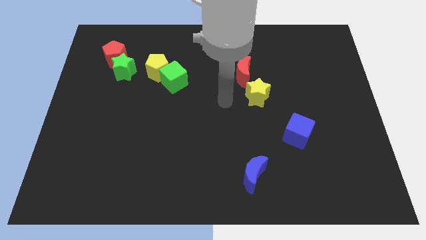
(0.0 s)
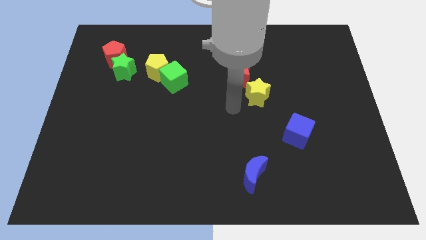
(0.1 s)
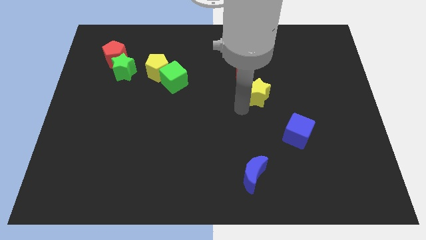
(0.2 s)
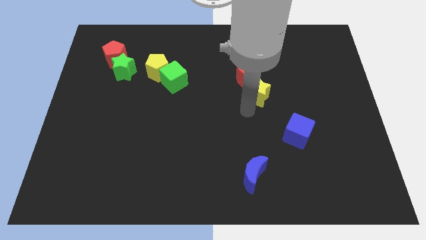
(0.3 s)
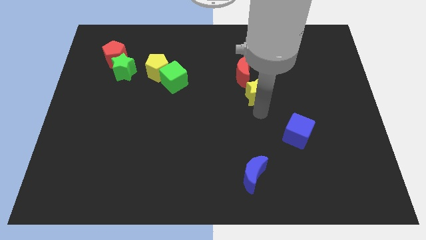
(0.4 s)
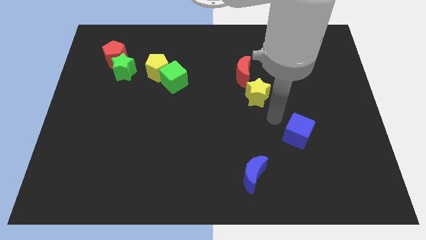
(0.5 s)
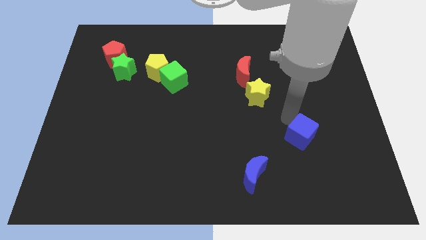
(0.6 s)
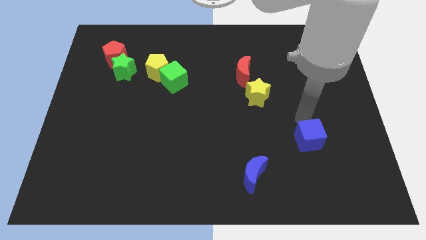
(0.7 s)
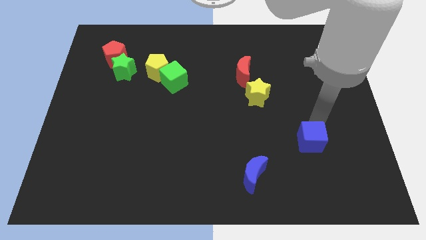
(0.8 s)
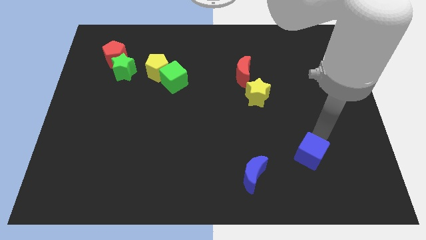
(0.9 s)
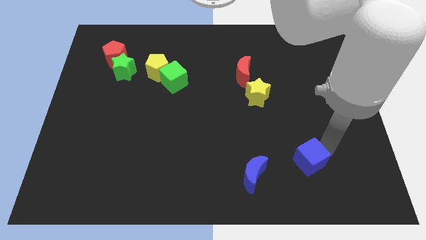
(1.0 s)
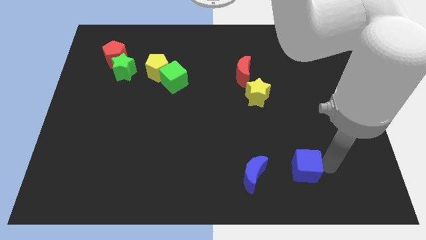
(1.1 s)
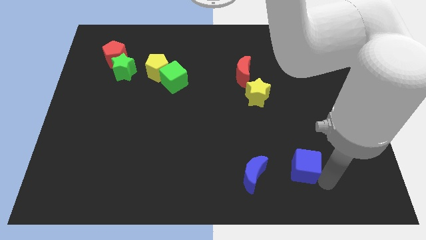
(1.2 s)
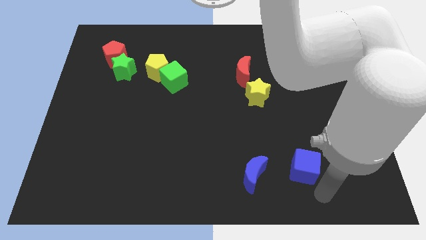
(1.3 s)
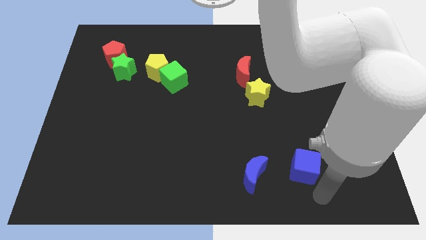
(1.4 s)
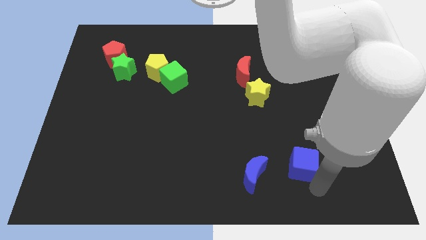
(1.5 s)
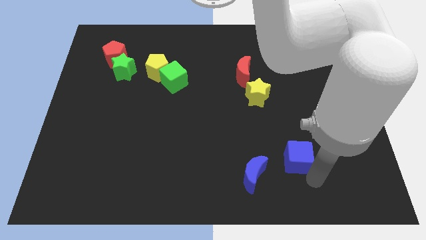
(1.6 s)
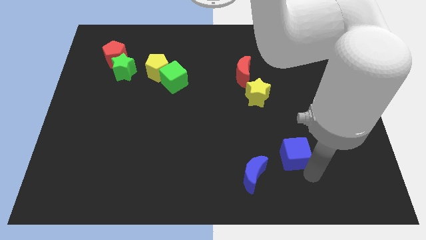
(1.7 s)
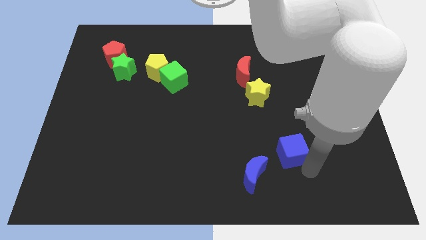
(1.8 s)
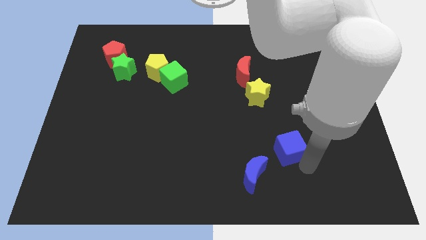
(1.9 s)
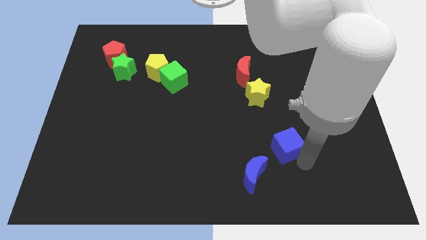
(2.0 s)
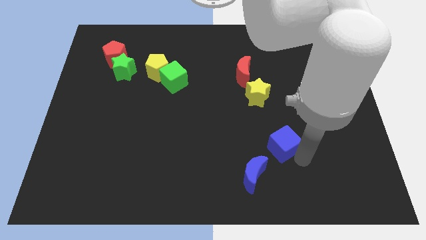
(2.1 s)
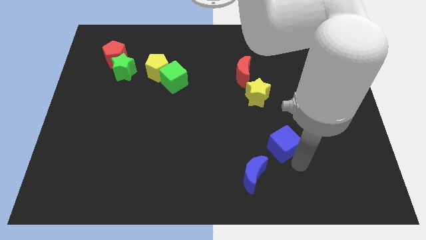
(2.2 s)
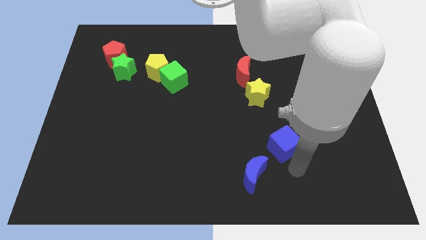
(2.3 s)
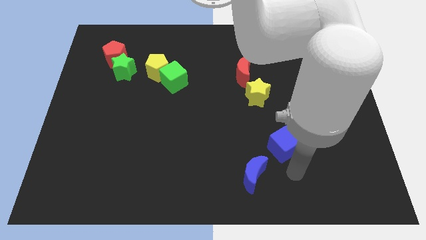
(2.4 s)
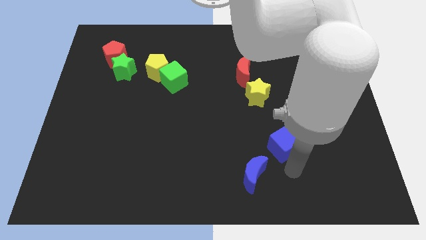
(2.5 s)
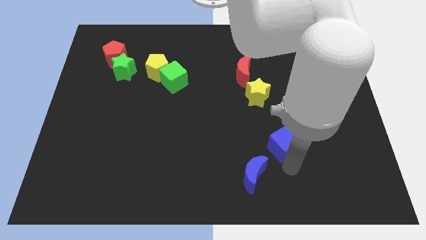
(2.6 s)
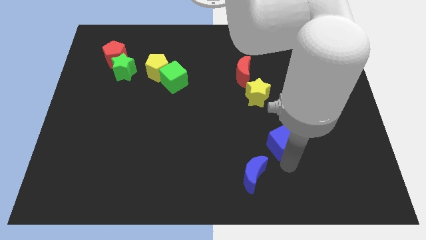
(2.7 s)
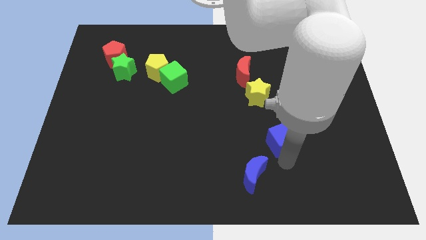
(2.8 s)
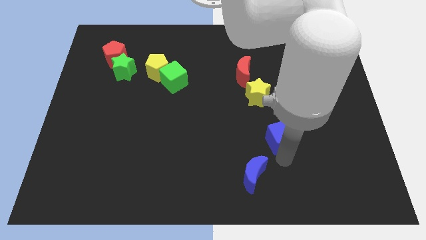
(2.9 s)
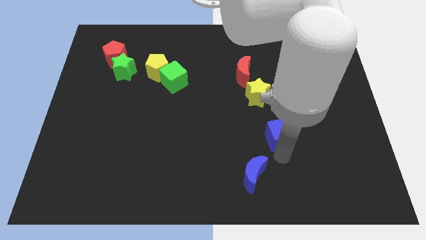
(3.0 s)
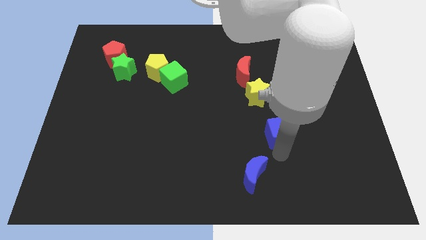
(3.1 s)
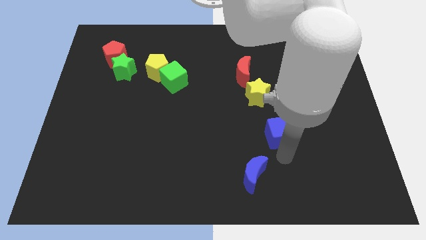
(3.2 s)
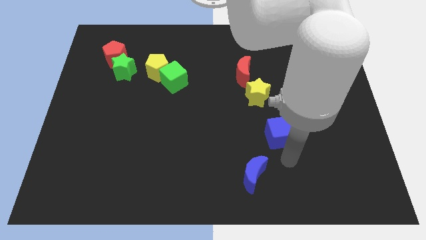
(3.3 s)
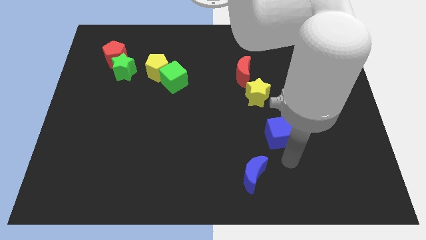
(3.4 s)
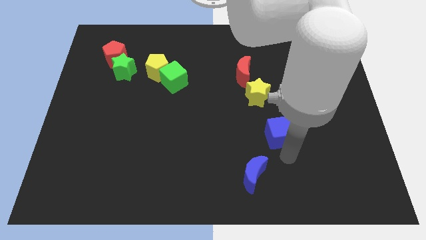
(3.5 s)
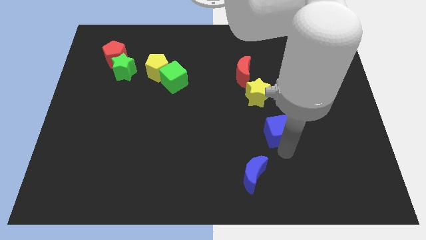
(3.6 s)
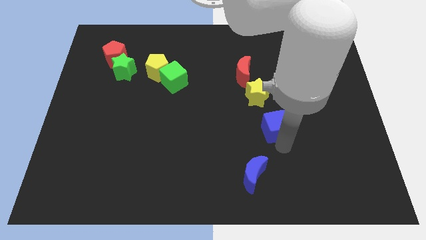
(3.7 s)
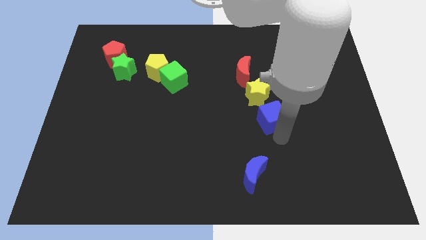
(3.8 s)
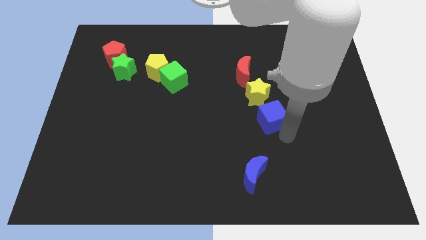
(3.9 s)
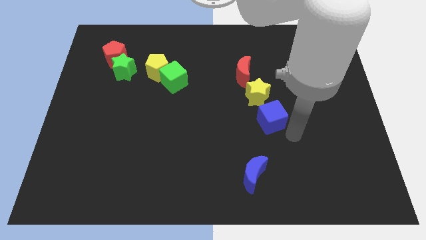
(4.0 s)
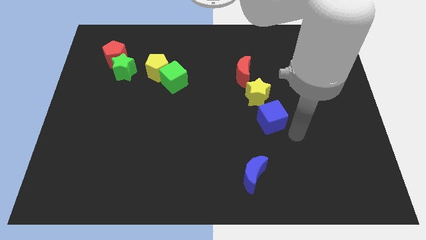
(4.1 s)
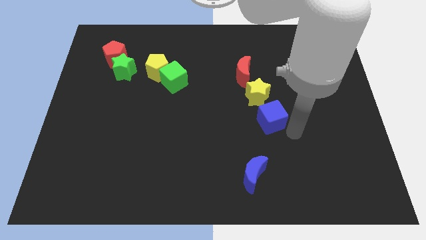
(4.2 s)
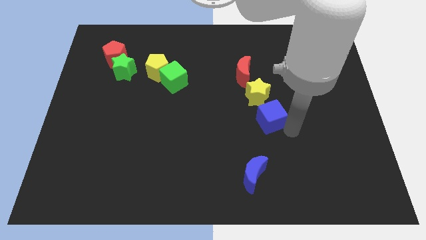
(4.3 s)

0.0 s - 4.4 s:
slightly push the blue cube upwards and to the left diagonally

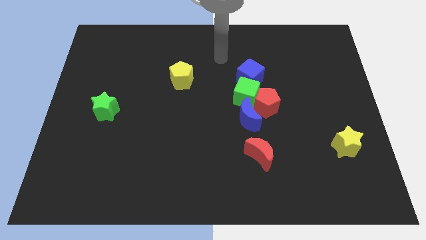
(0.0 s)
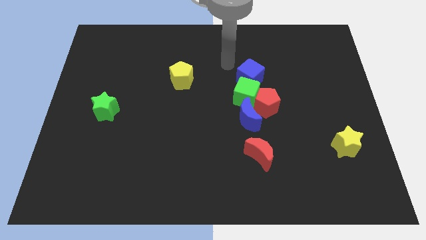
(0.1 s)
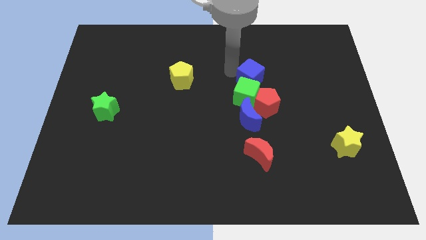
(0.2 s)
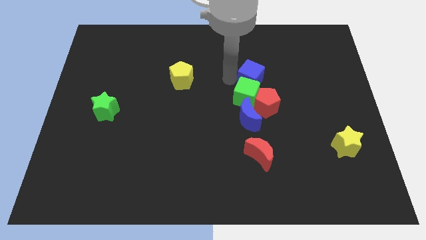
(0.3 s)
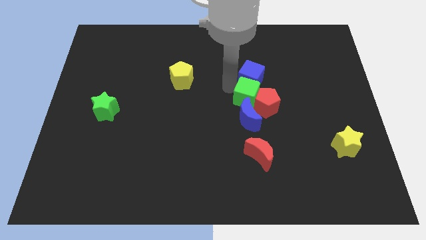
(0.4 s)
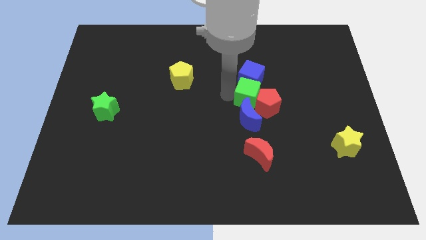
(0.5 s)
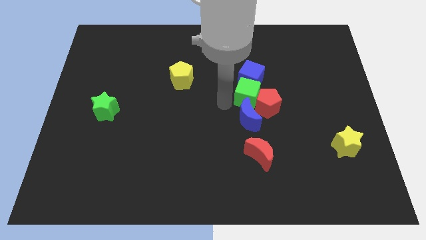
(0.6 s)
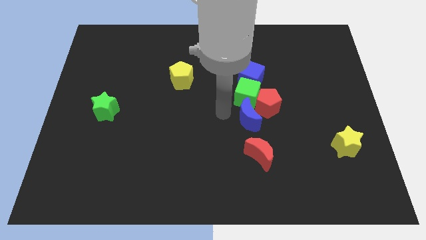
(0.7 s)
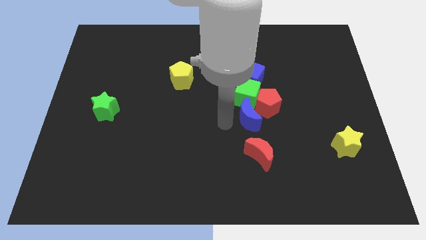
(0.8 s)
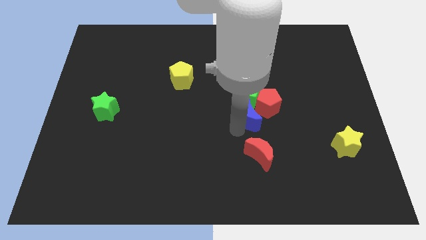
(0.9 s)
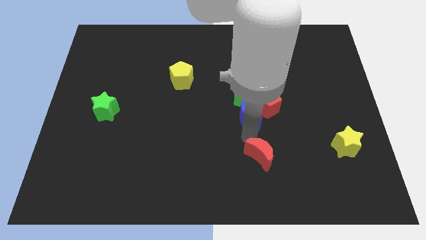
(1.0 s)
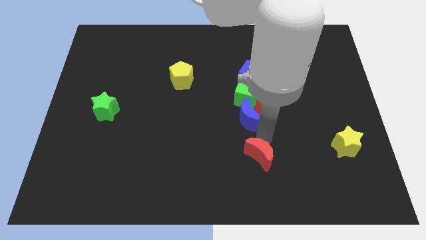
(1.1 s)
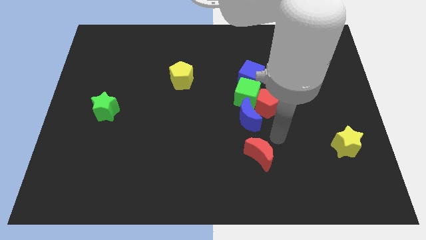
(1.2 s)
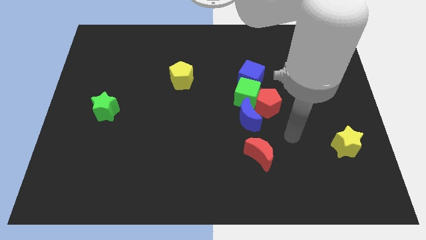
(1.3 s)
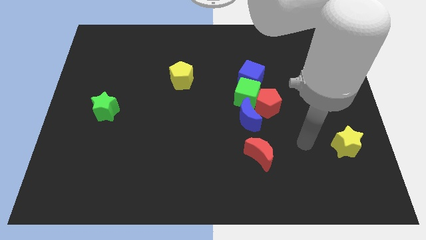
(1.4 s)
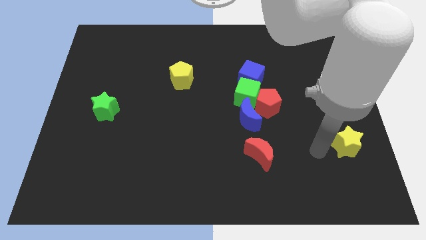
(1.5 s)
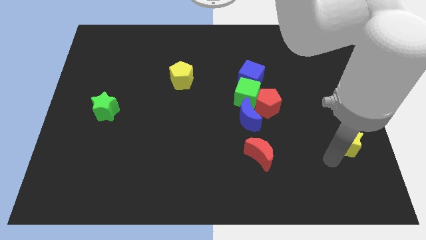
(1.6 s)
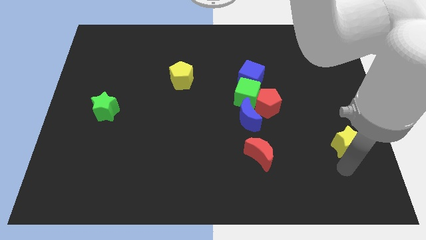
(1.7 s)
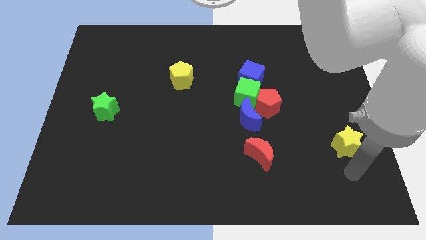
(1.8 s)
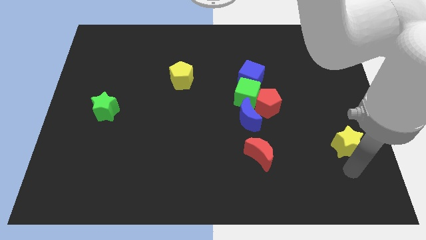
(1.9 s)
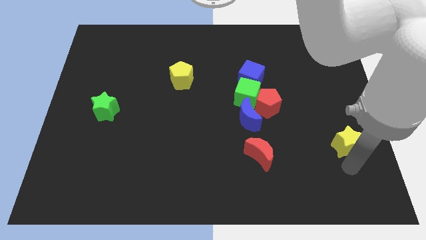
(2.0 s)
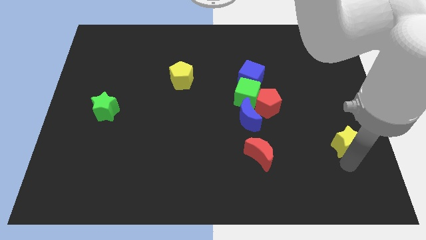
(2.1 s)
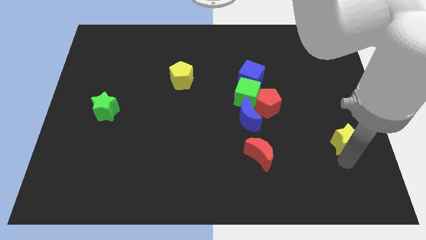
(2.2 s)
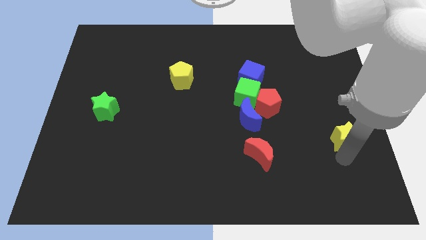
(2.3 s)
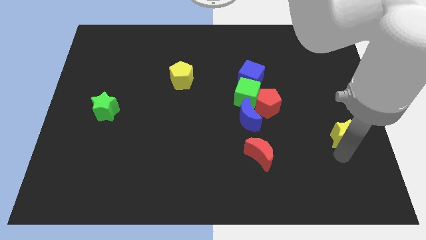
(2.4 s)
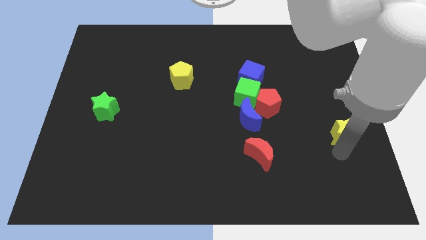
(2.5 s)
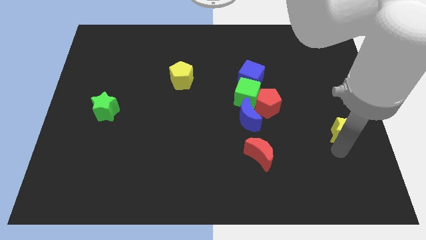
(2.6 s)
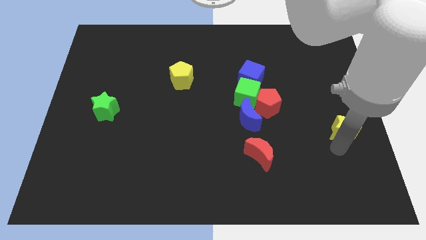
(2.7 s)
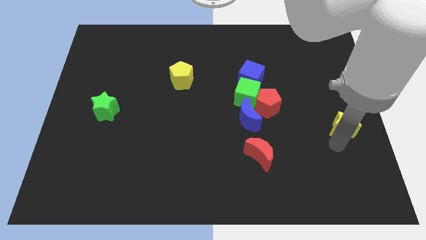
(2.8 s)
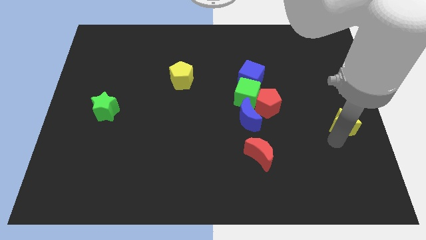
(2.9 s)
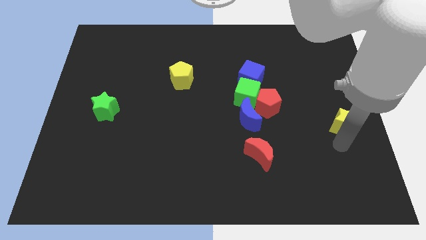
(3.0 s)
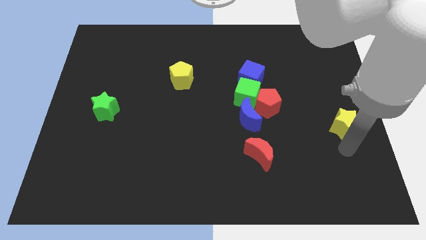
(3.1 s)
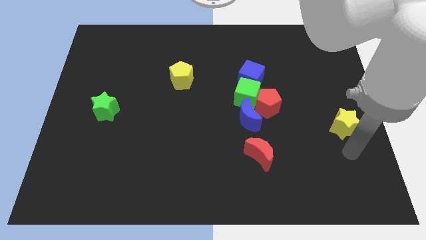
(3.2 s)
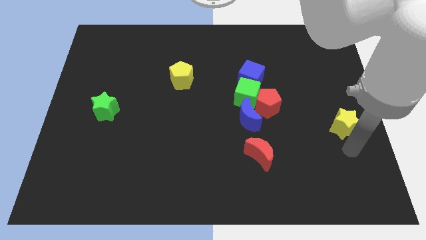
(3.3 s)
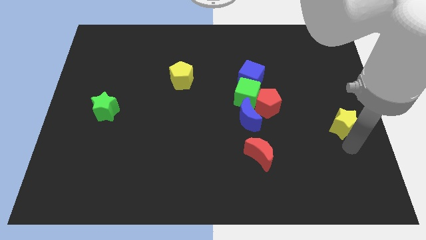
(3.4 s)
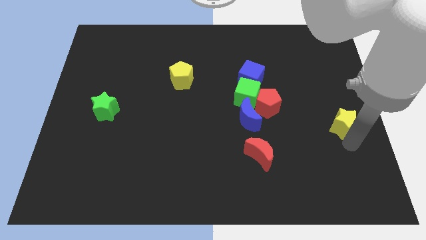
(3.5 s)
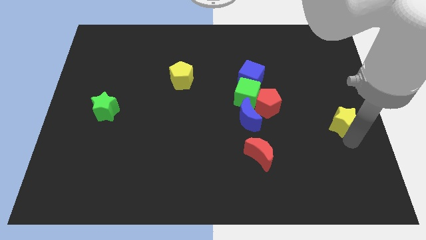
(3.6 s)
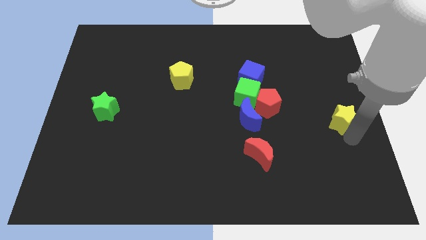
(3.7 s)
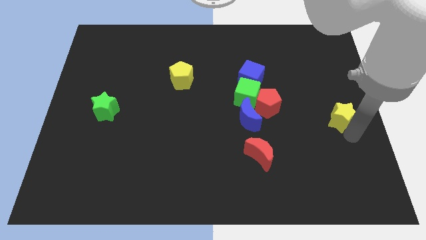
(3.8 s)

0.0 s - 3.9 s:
push the yellow star a little up
